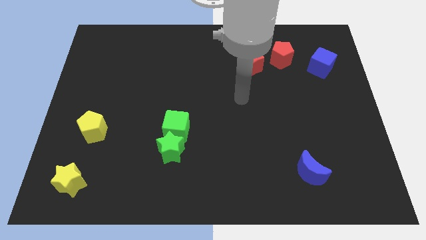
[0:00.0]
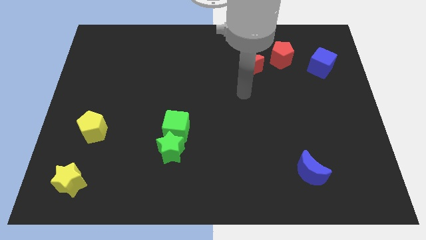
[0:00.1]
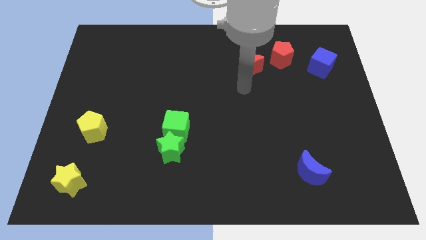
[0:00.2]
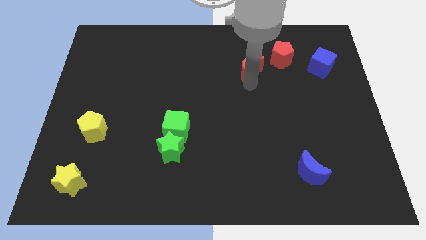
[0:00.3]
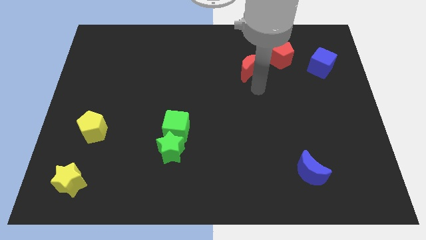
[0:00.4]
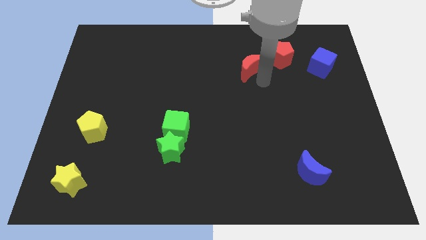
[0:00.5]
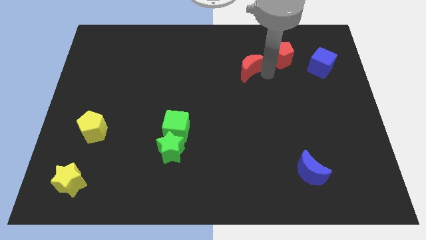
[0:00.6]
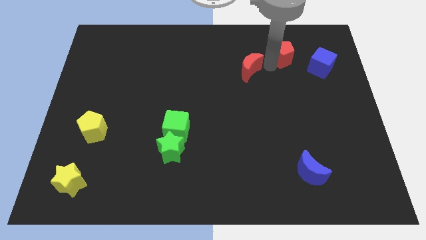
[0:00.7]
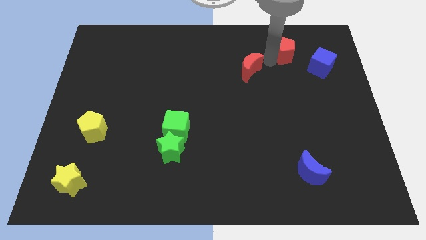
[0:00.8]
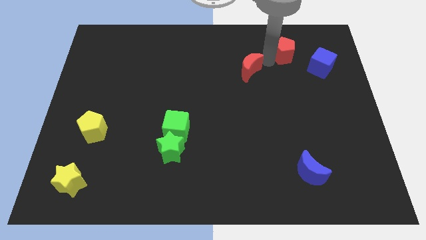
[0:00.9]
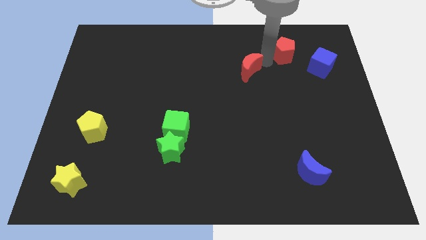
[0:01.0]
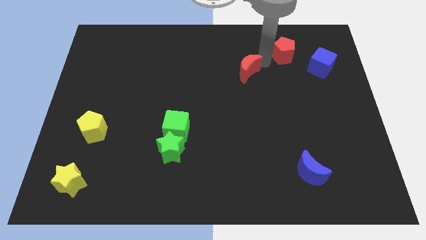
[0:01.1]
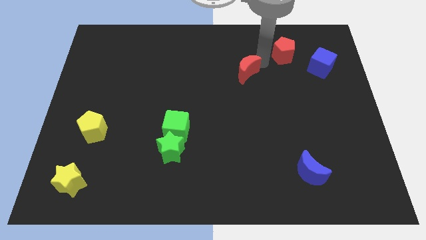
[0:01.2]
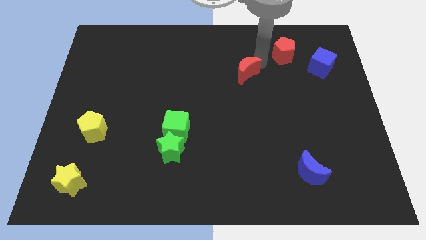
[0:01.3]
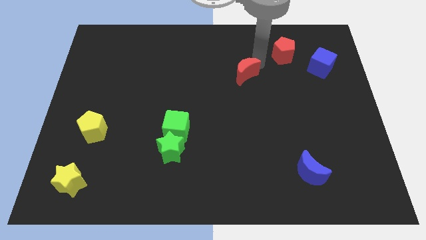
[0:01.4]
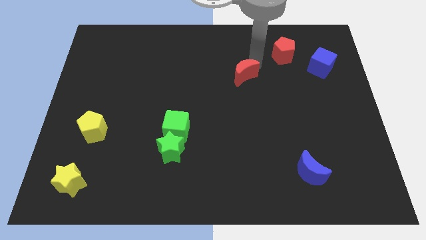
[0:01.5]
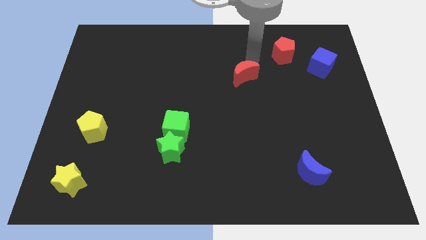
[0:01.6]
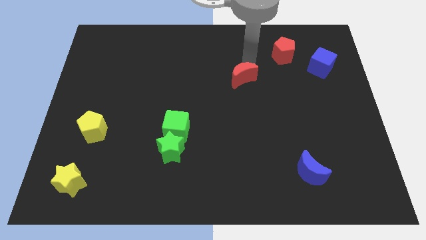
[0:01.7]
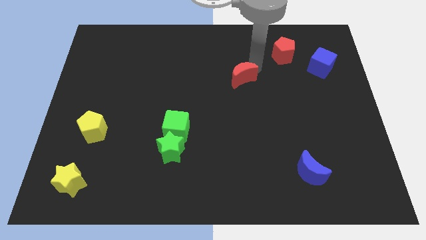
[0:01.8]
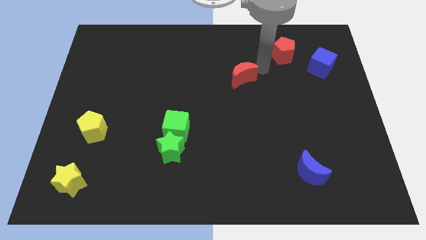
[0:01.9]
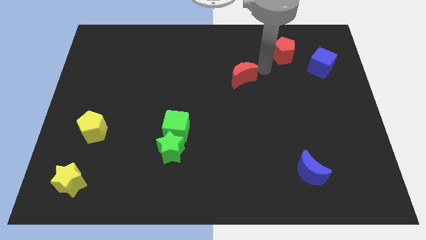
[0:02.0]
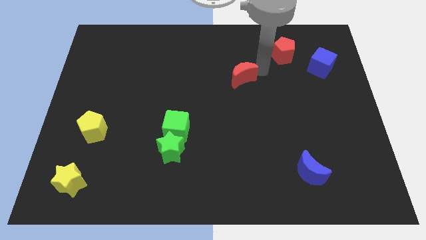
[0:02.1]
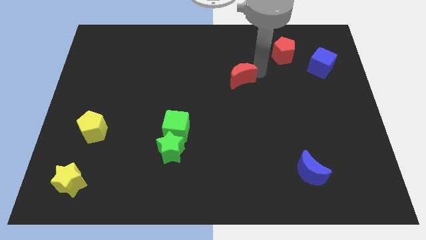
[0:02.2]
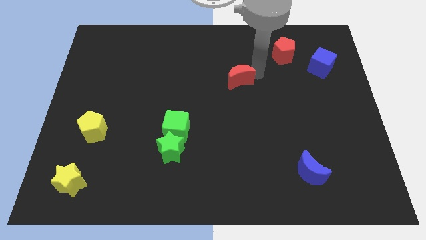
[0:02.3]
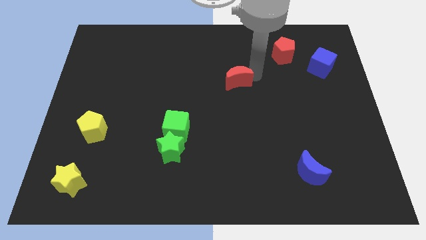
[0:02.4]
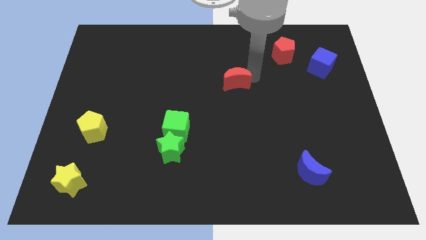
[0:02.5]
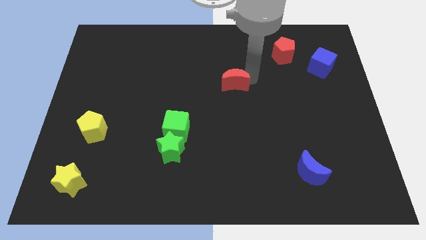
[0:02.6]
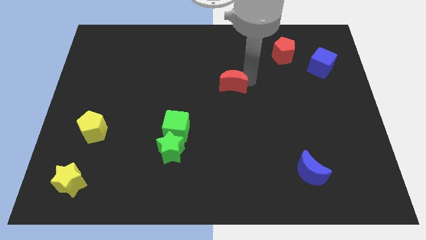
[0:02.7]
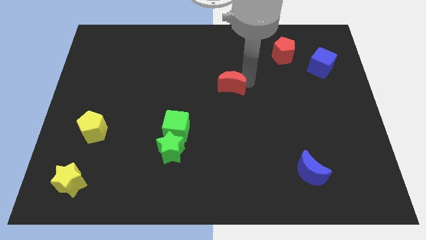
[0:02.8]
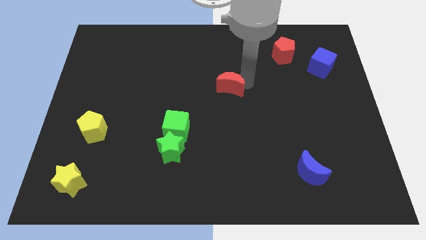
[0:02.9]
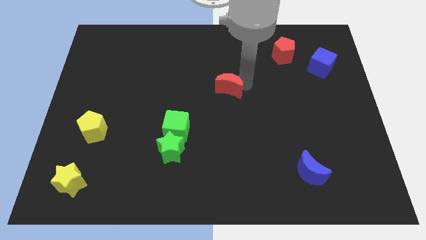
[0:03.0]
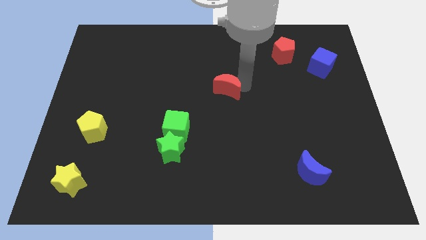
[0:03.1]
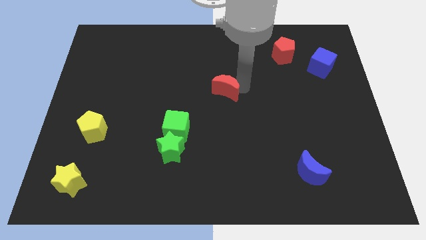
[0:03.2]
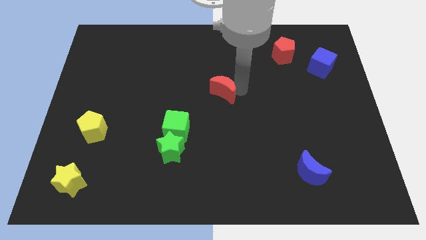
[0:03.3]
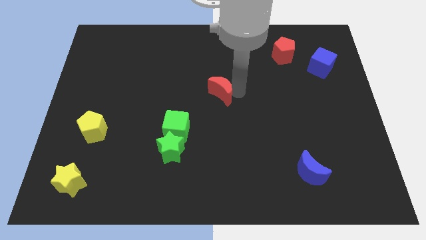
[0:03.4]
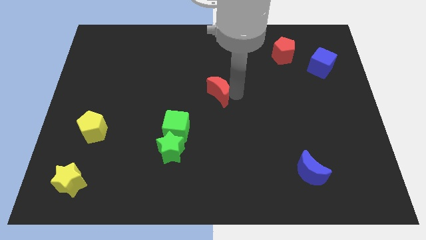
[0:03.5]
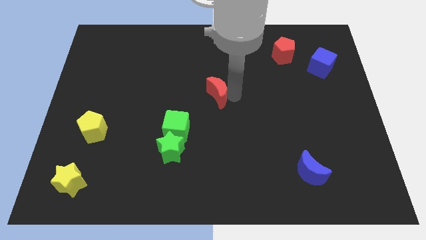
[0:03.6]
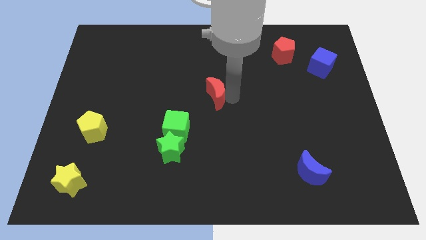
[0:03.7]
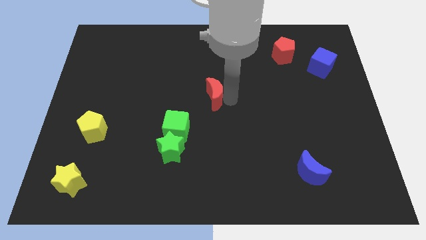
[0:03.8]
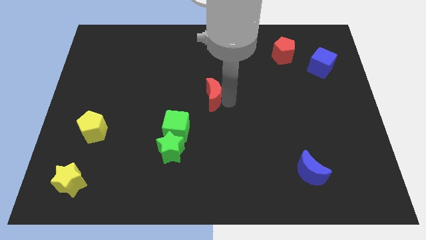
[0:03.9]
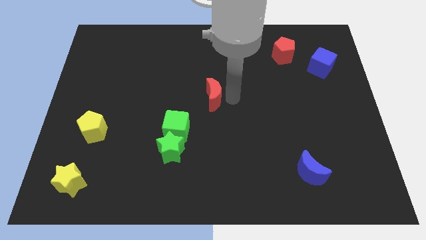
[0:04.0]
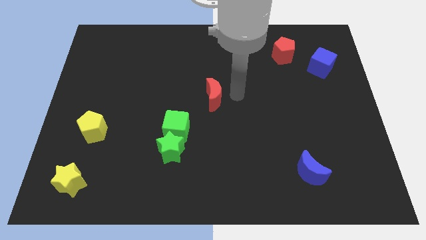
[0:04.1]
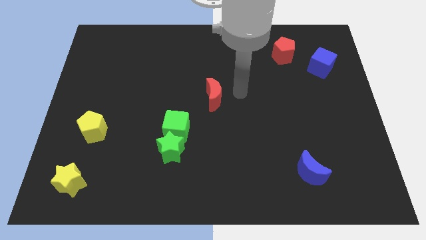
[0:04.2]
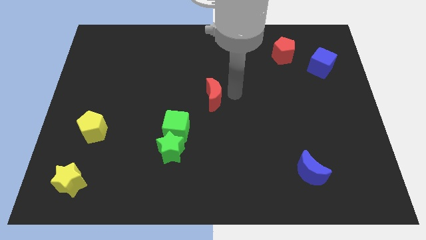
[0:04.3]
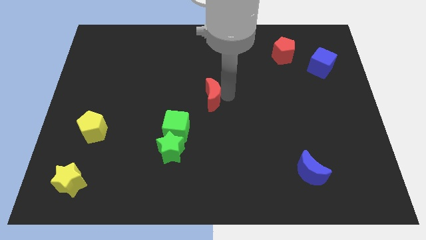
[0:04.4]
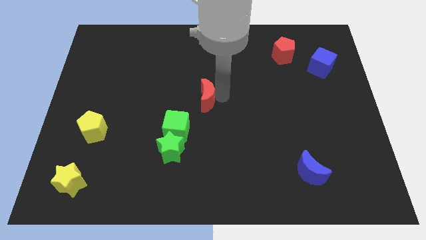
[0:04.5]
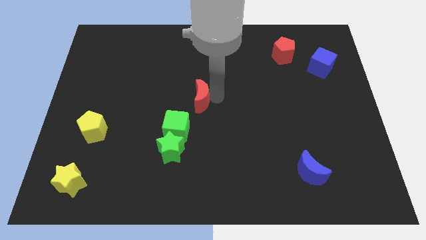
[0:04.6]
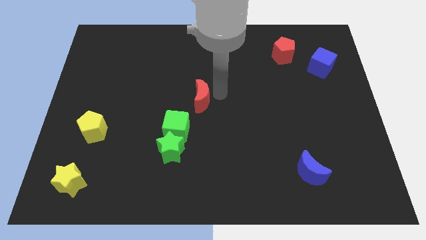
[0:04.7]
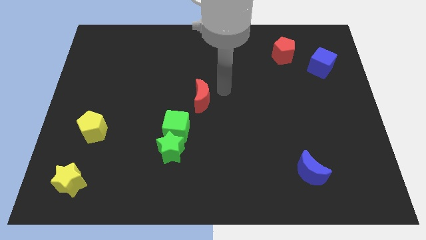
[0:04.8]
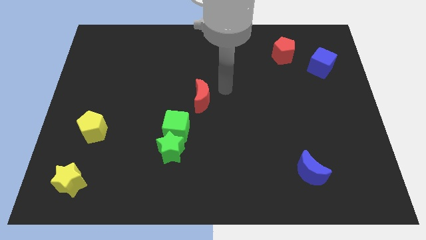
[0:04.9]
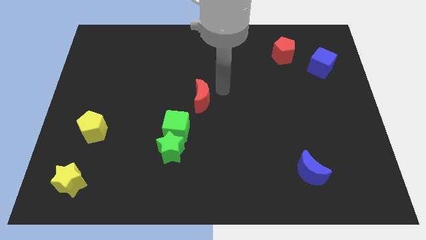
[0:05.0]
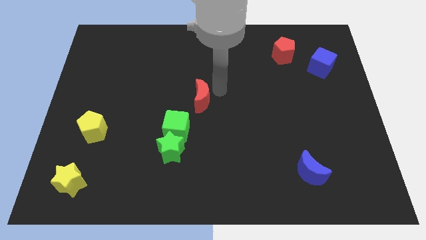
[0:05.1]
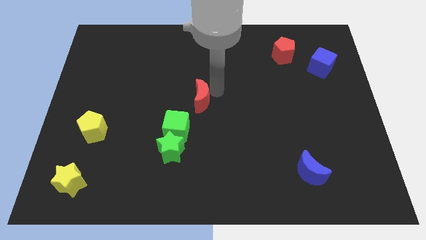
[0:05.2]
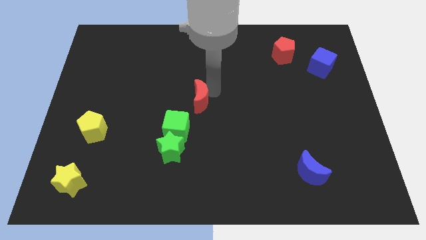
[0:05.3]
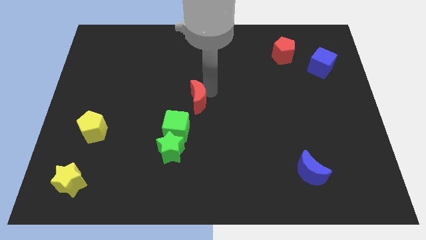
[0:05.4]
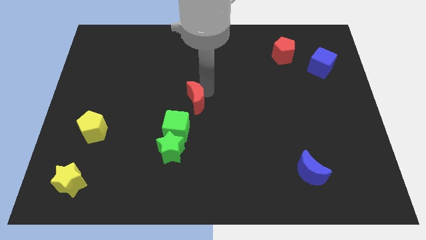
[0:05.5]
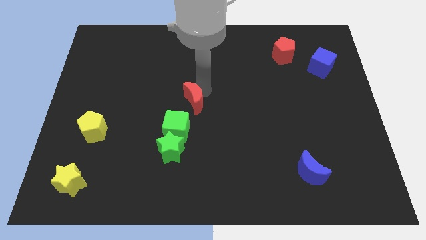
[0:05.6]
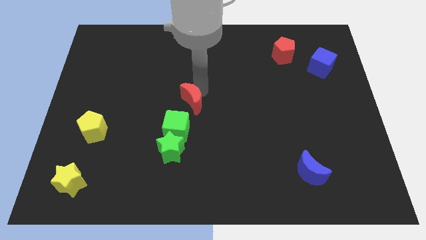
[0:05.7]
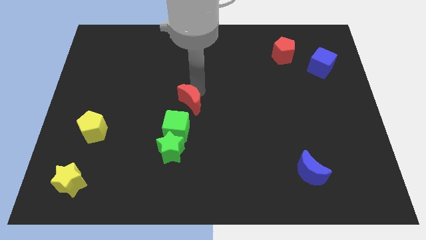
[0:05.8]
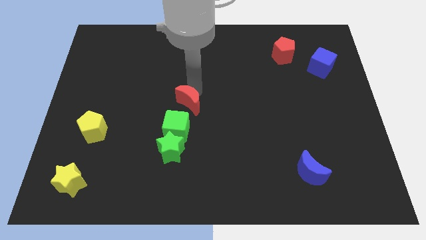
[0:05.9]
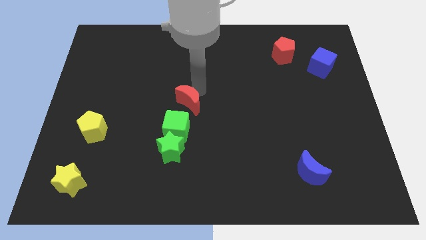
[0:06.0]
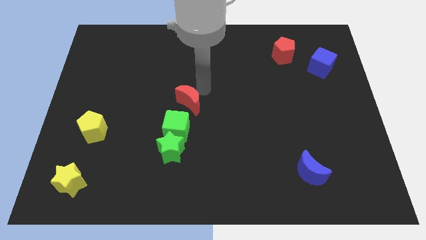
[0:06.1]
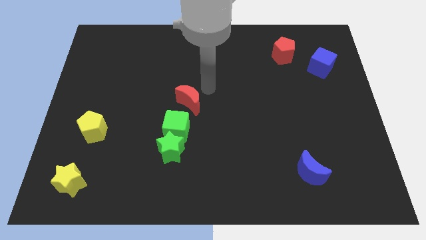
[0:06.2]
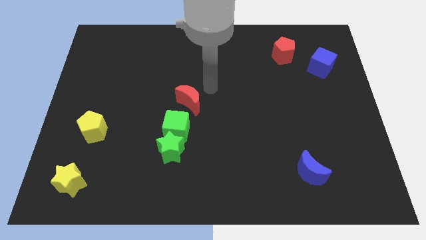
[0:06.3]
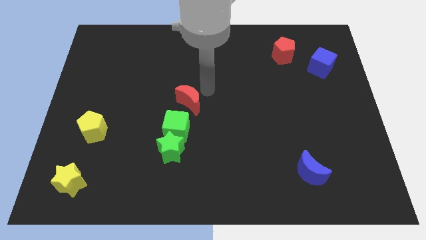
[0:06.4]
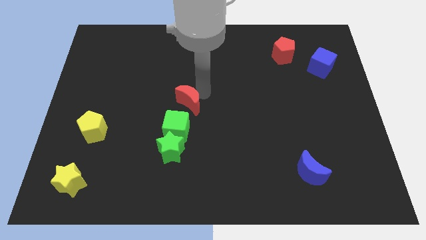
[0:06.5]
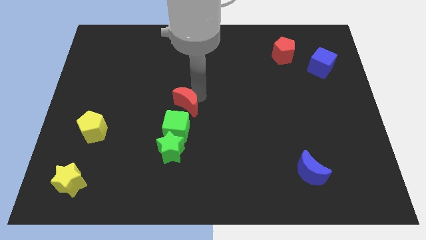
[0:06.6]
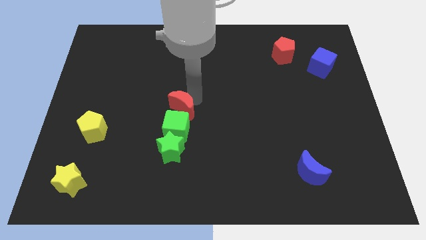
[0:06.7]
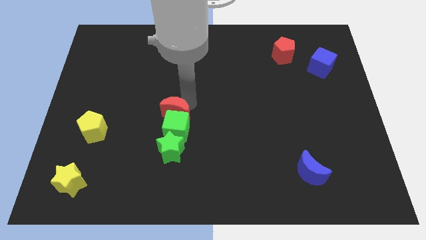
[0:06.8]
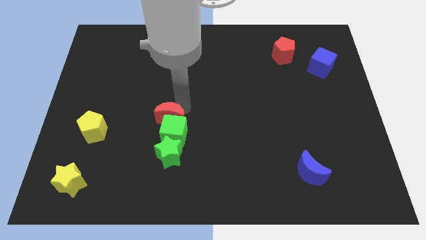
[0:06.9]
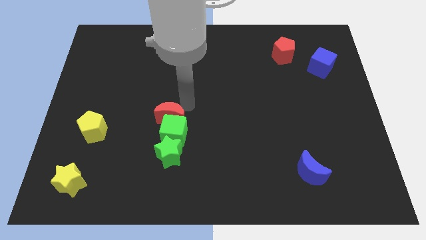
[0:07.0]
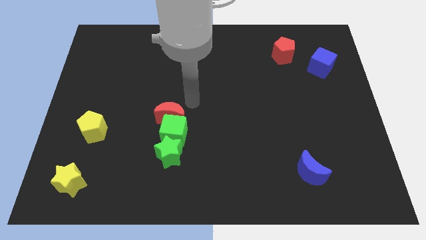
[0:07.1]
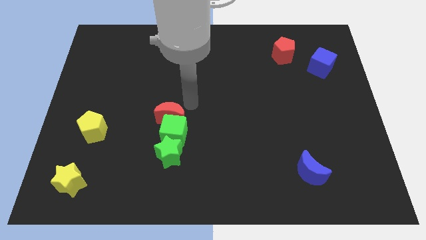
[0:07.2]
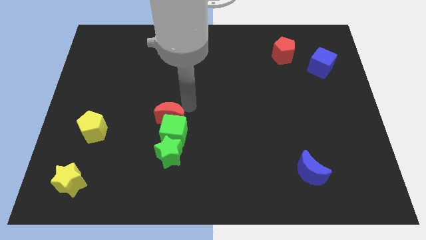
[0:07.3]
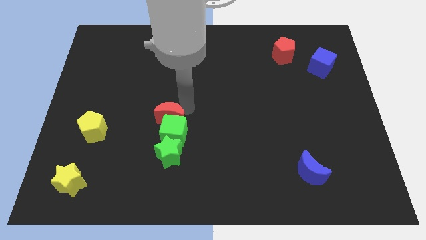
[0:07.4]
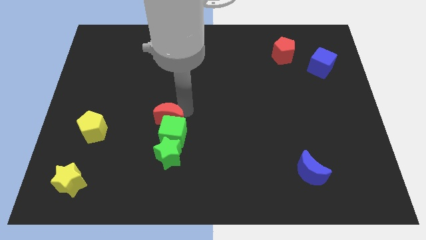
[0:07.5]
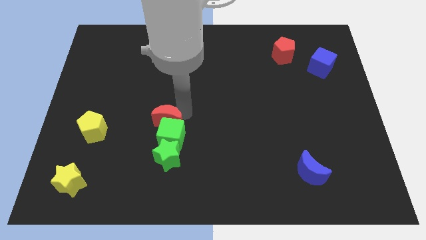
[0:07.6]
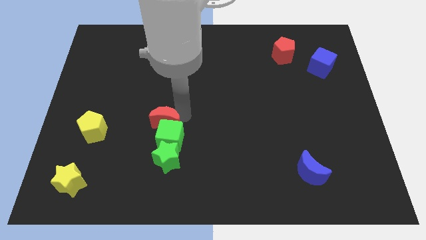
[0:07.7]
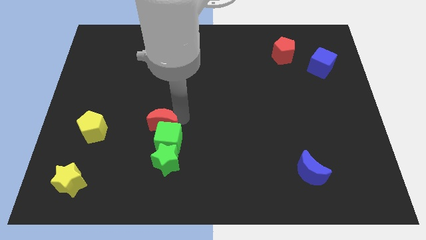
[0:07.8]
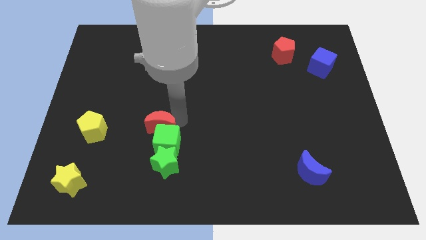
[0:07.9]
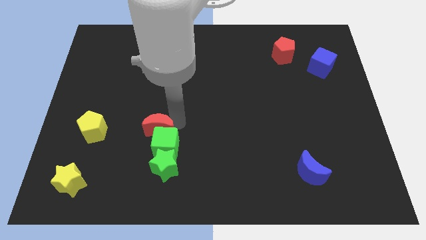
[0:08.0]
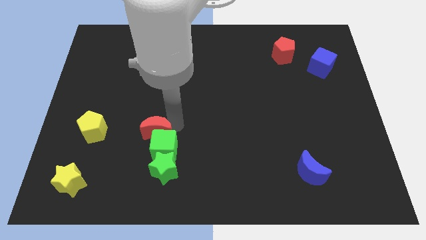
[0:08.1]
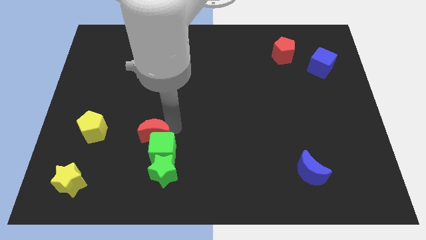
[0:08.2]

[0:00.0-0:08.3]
put the red moon to the top left side of the green star
